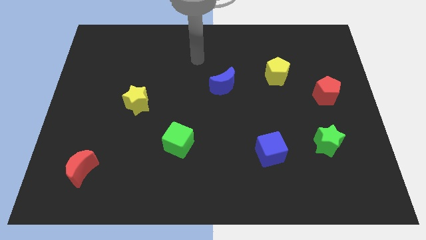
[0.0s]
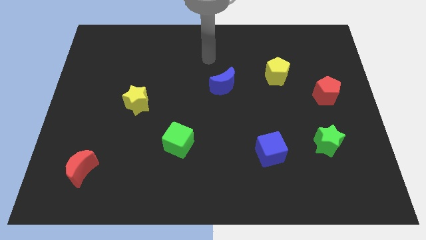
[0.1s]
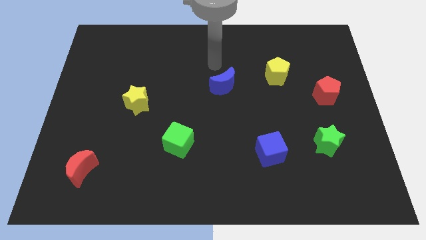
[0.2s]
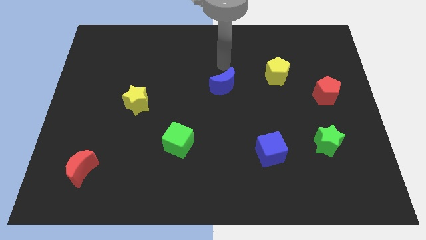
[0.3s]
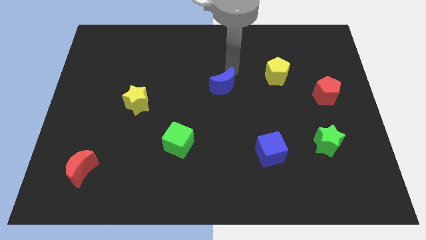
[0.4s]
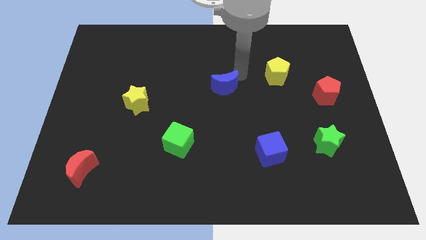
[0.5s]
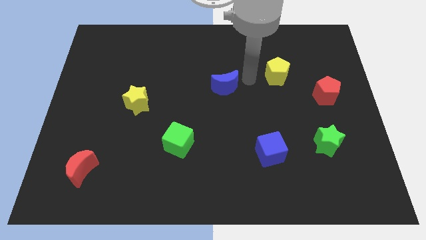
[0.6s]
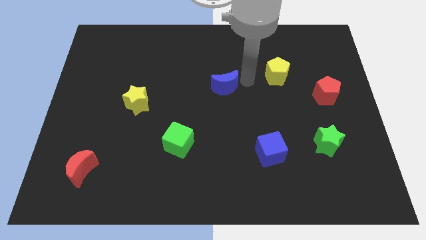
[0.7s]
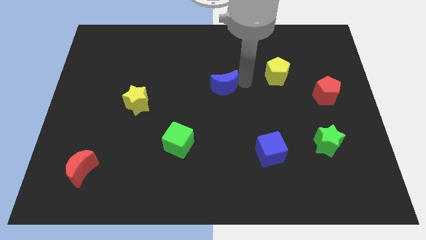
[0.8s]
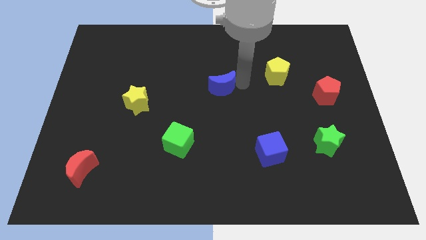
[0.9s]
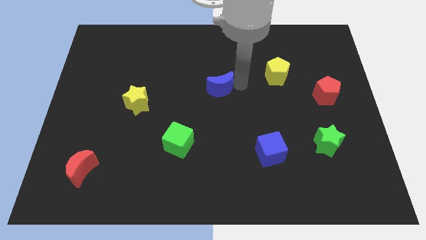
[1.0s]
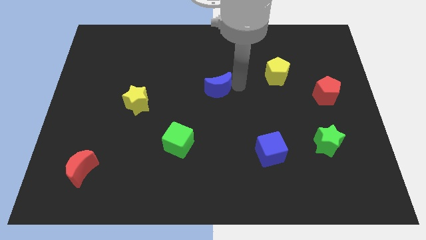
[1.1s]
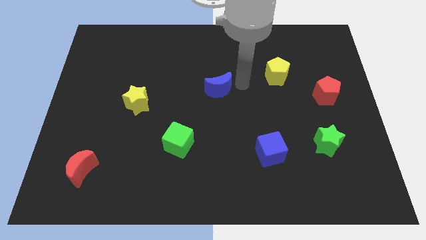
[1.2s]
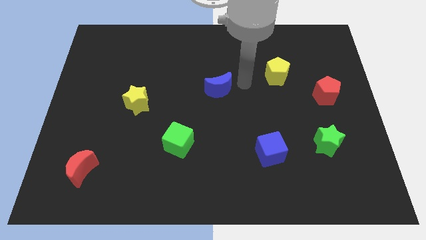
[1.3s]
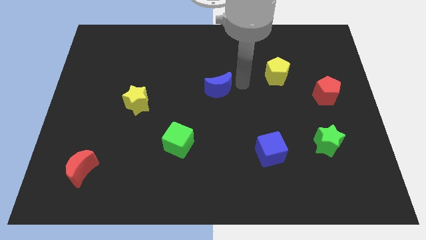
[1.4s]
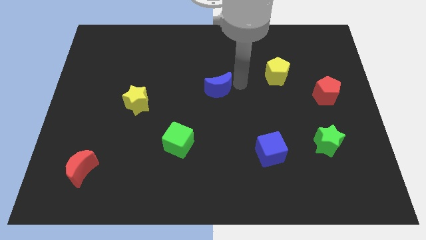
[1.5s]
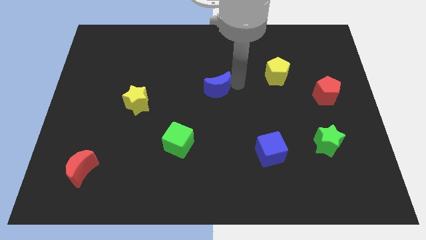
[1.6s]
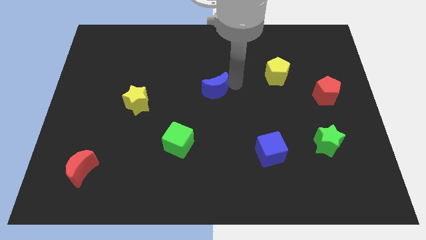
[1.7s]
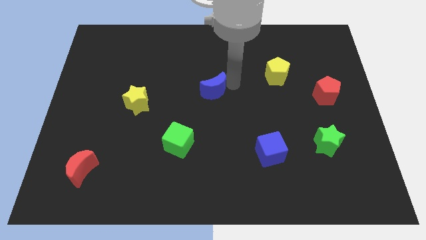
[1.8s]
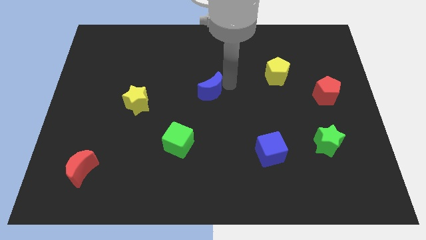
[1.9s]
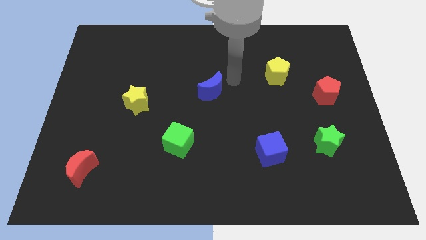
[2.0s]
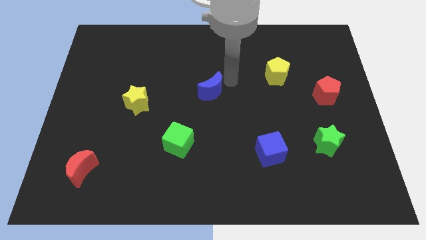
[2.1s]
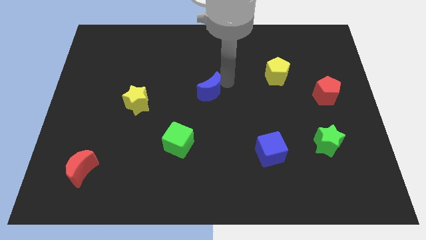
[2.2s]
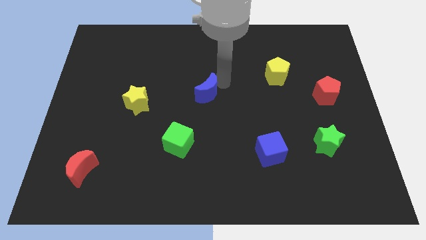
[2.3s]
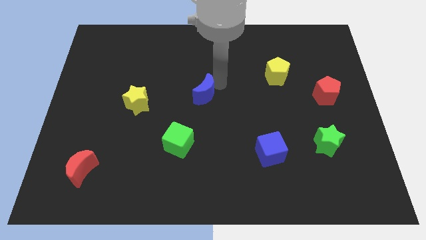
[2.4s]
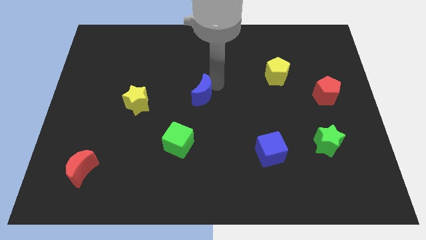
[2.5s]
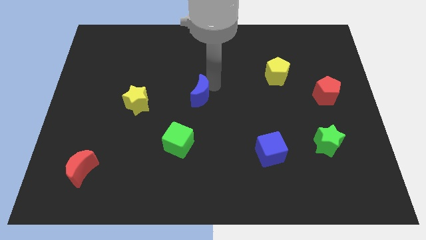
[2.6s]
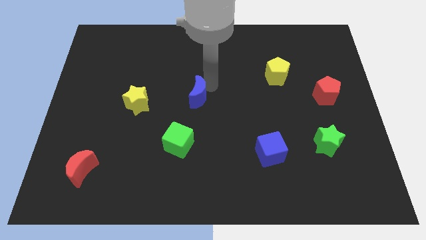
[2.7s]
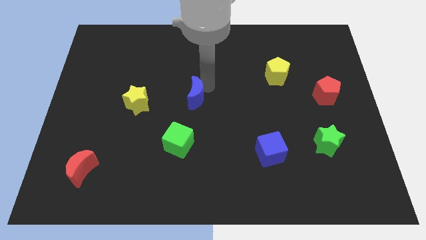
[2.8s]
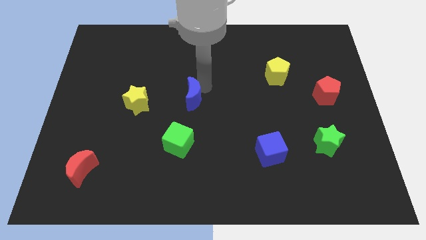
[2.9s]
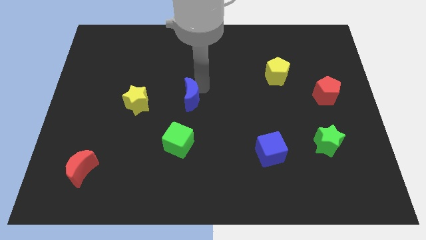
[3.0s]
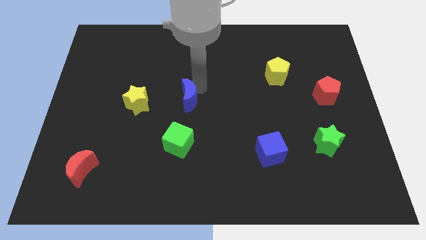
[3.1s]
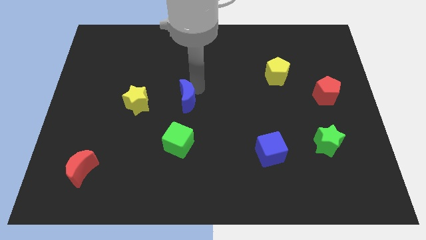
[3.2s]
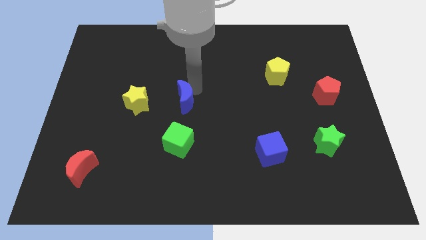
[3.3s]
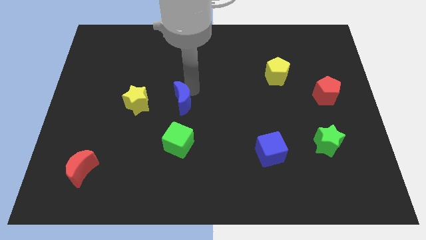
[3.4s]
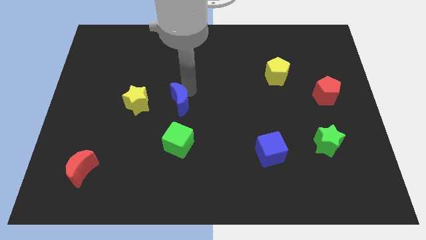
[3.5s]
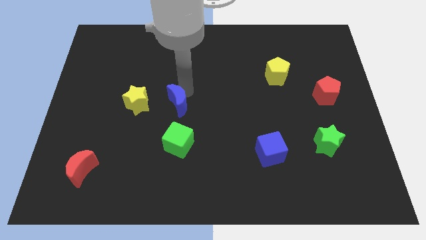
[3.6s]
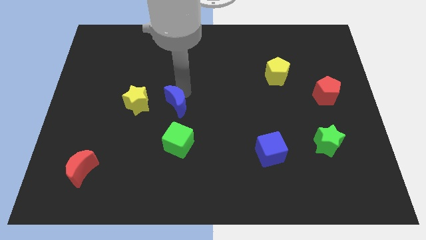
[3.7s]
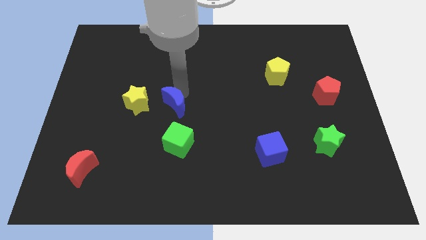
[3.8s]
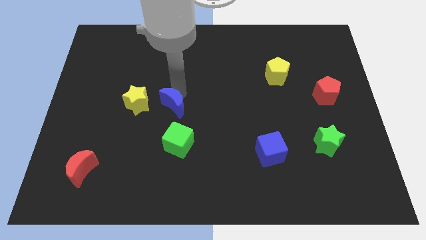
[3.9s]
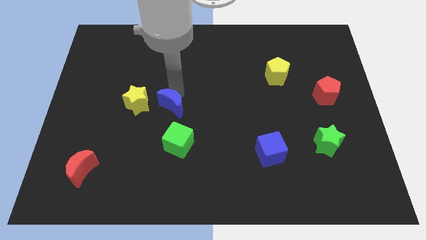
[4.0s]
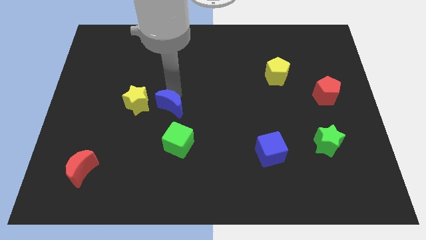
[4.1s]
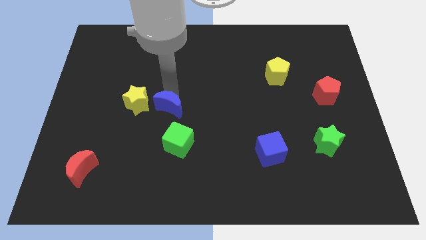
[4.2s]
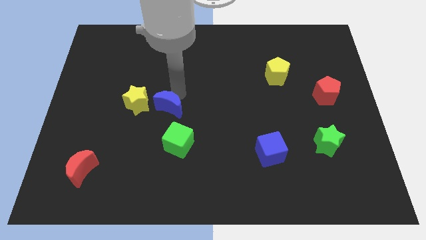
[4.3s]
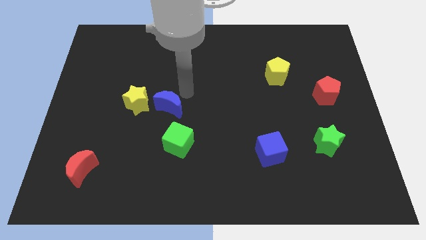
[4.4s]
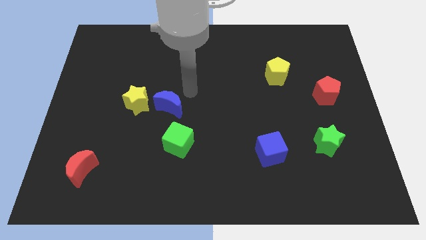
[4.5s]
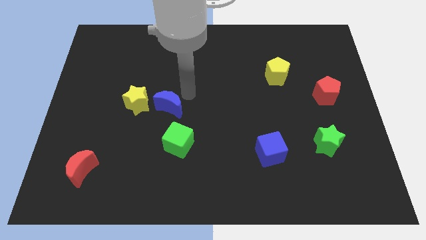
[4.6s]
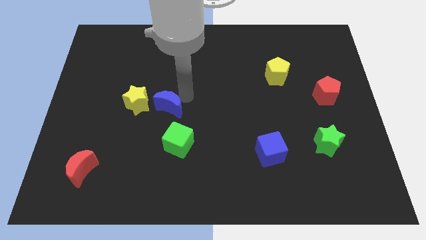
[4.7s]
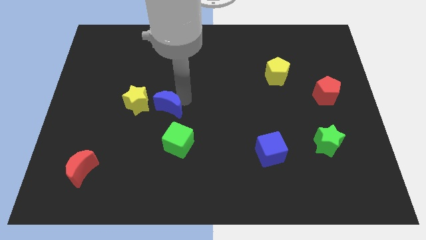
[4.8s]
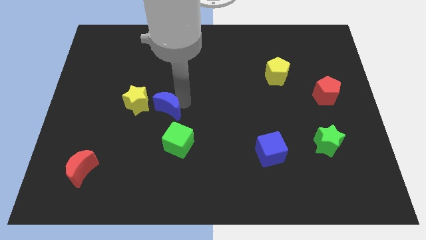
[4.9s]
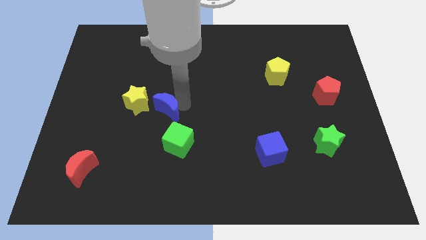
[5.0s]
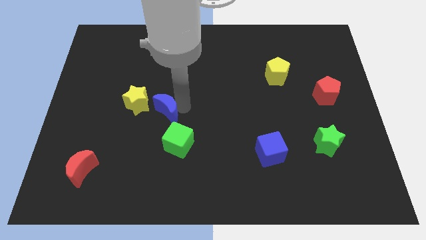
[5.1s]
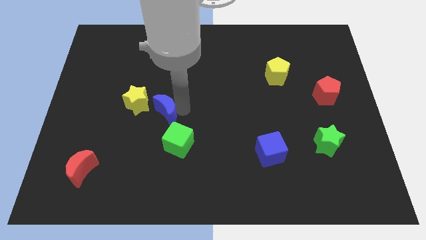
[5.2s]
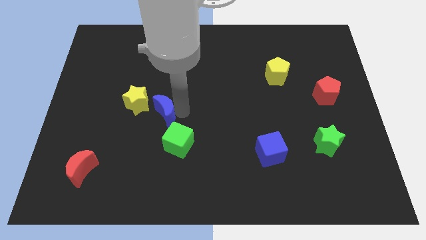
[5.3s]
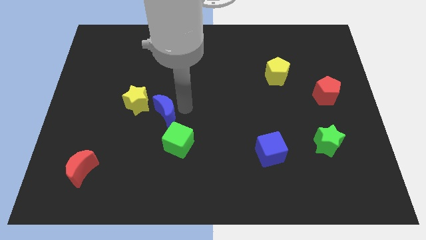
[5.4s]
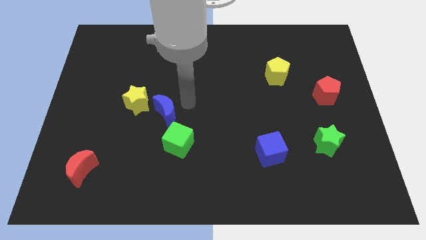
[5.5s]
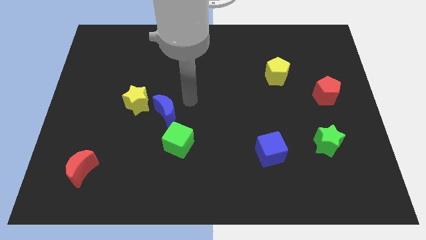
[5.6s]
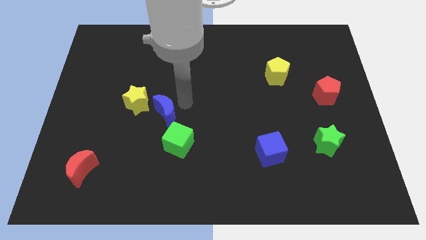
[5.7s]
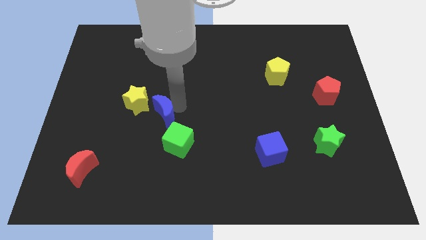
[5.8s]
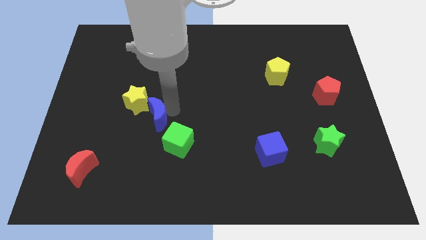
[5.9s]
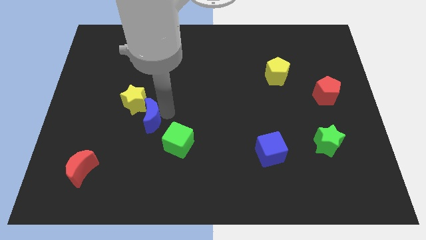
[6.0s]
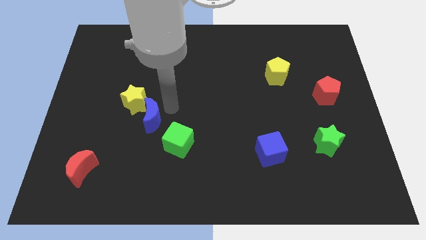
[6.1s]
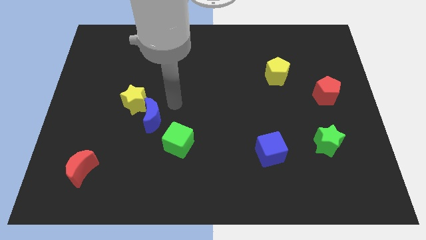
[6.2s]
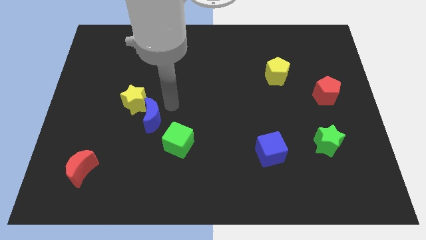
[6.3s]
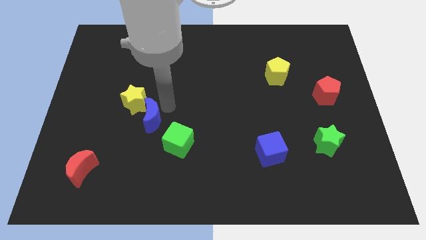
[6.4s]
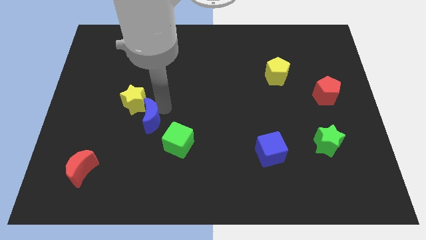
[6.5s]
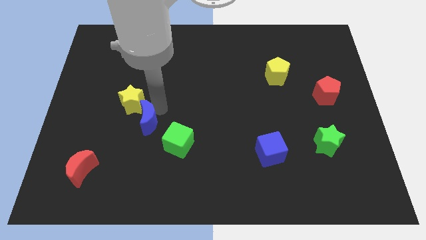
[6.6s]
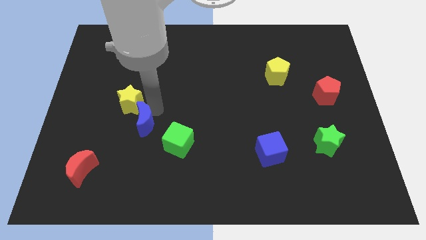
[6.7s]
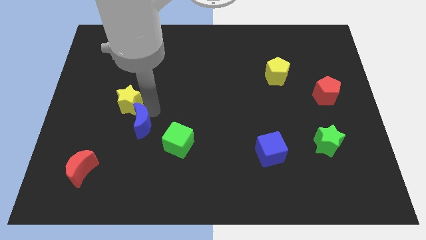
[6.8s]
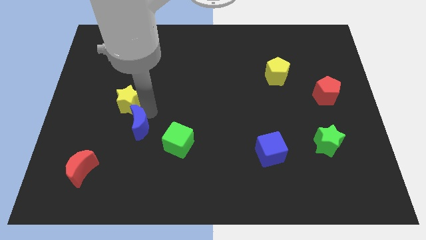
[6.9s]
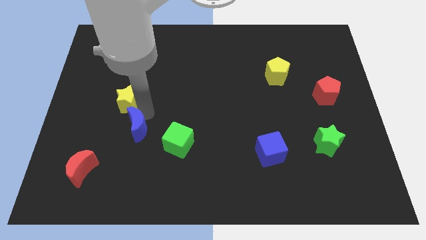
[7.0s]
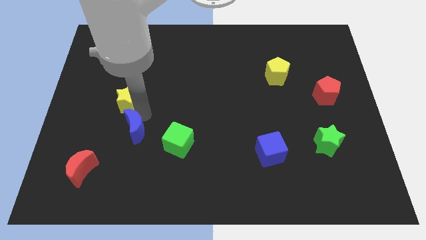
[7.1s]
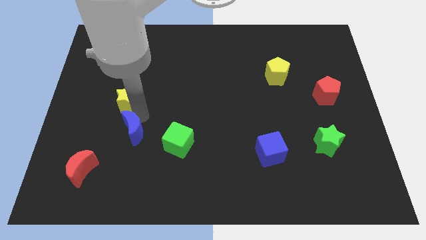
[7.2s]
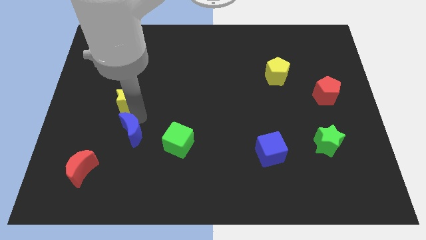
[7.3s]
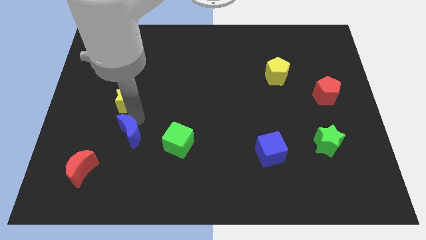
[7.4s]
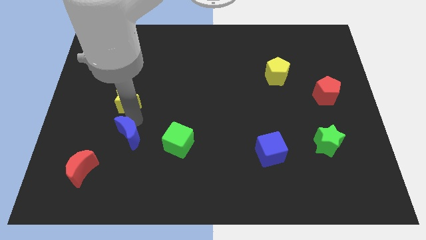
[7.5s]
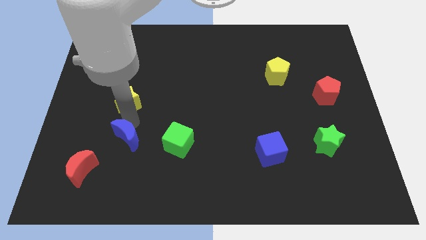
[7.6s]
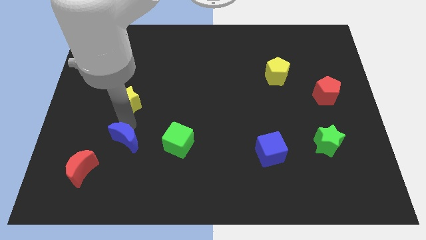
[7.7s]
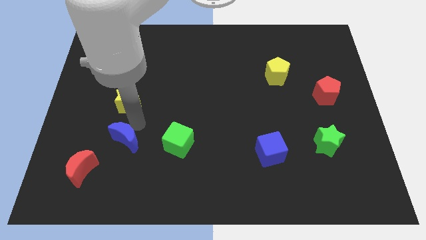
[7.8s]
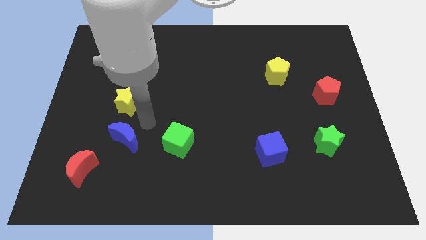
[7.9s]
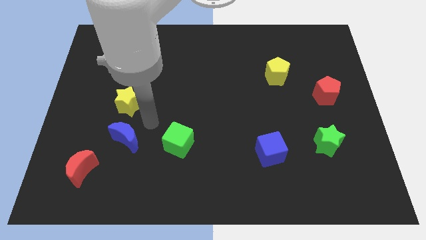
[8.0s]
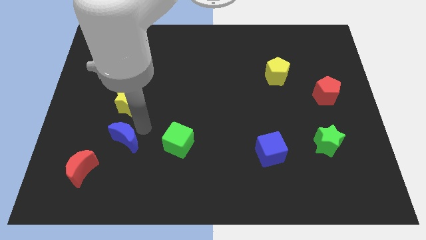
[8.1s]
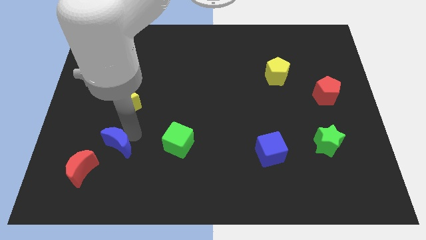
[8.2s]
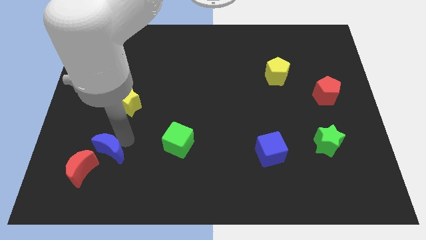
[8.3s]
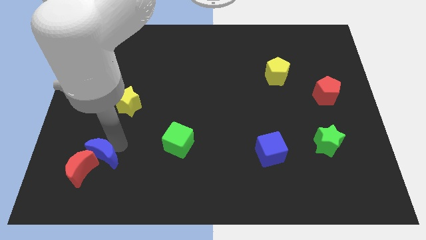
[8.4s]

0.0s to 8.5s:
put the blue moon towards the red moon
